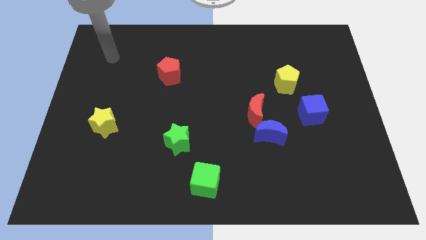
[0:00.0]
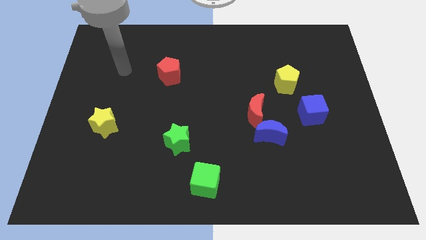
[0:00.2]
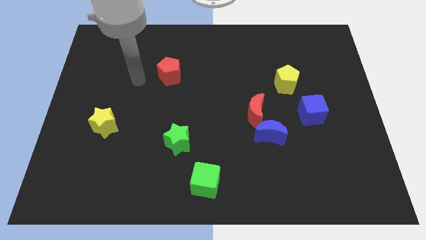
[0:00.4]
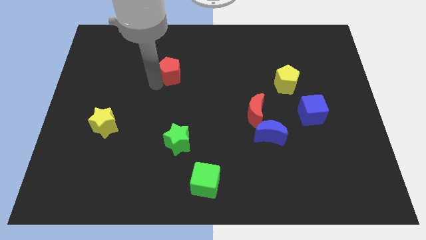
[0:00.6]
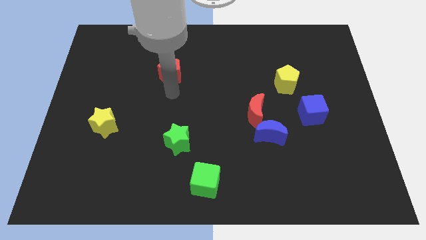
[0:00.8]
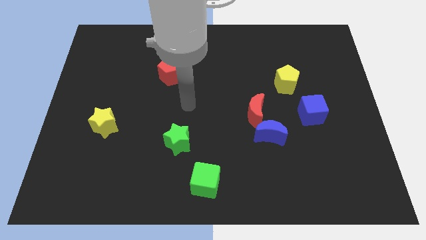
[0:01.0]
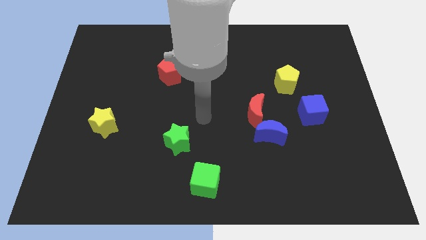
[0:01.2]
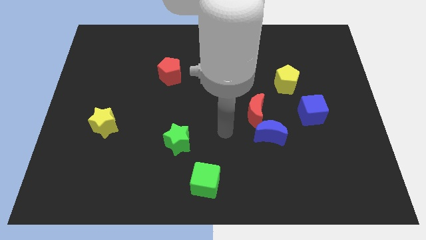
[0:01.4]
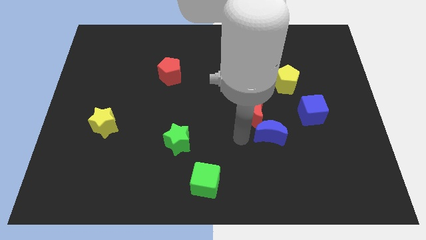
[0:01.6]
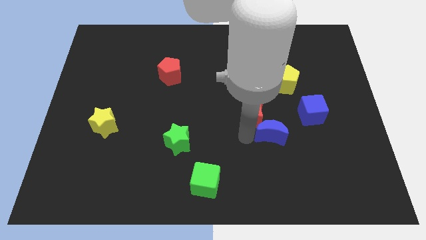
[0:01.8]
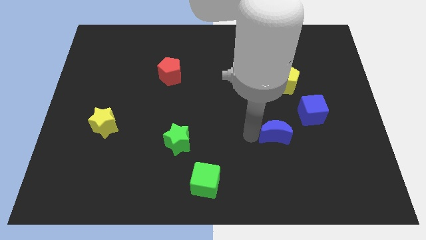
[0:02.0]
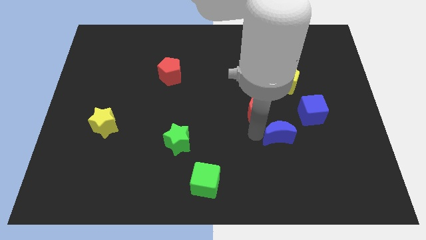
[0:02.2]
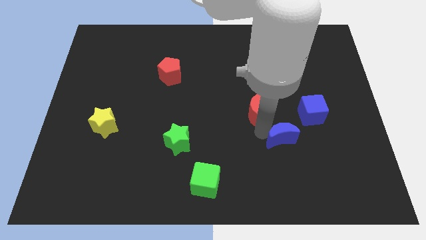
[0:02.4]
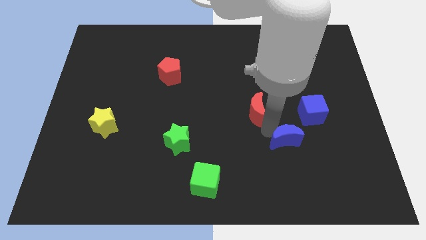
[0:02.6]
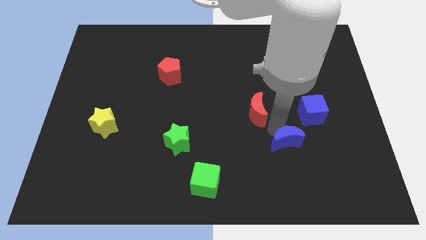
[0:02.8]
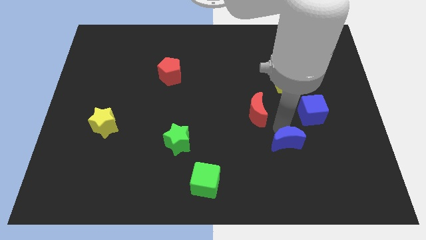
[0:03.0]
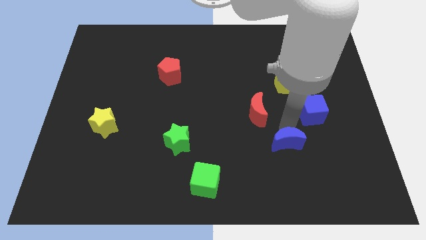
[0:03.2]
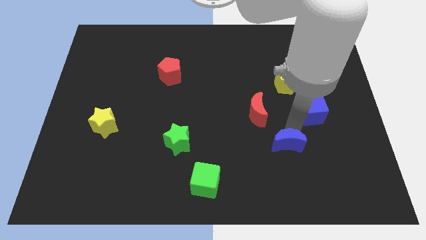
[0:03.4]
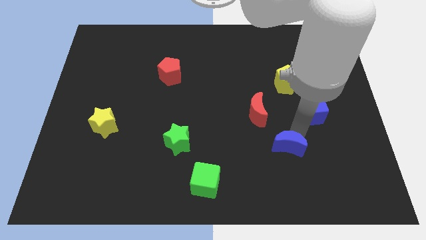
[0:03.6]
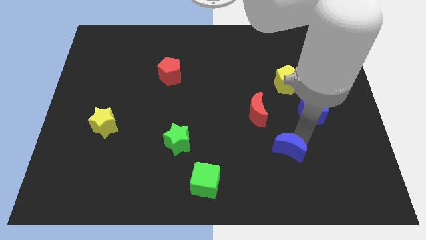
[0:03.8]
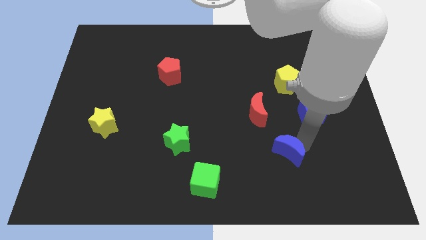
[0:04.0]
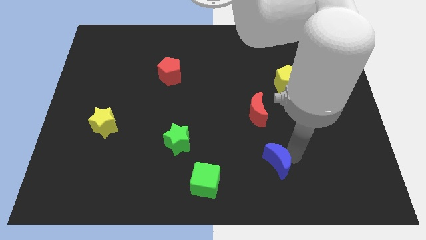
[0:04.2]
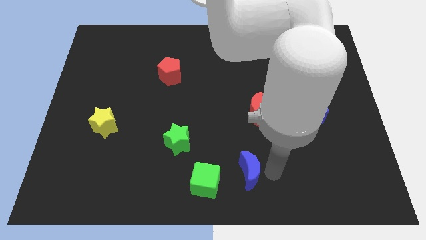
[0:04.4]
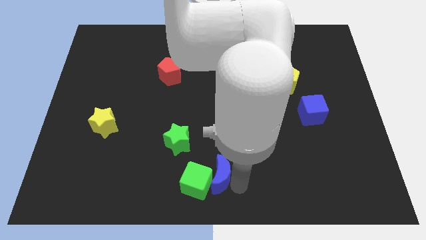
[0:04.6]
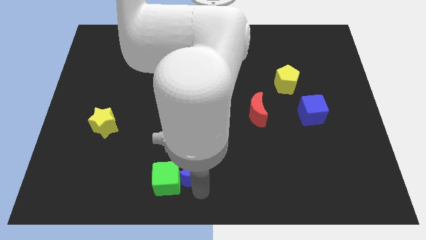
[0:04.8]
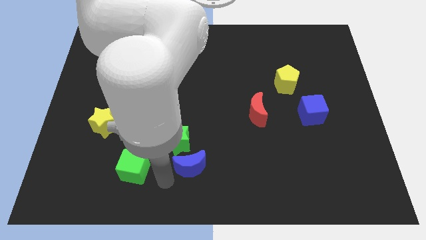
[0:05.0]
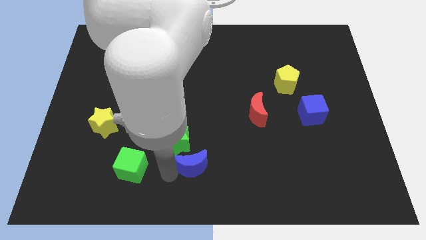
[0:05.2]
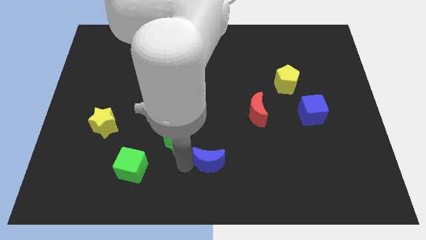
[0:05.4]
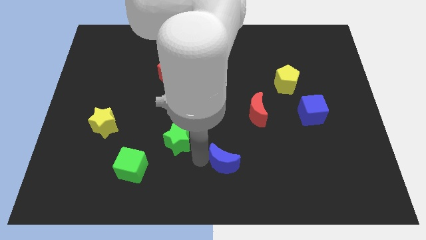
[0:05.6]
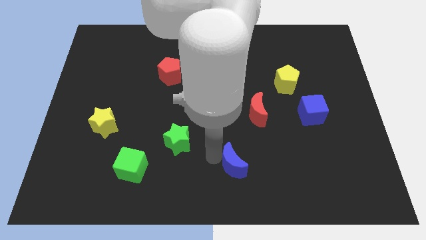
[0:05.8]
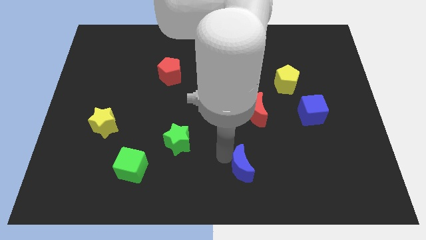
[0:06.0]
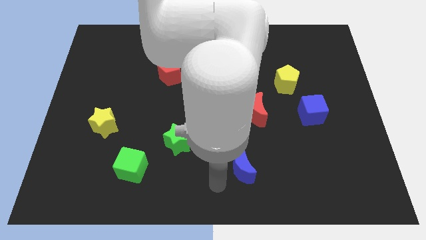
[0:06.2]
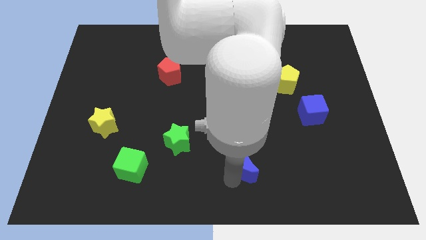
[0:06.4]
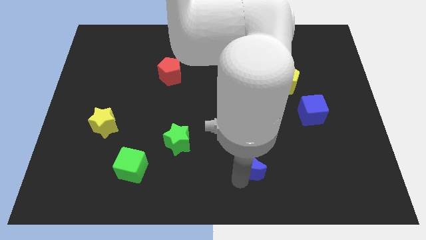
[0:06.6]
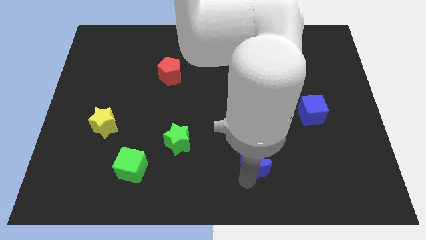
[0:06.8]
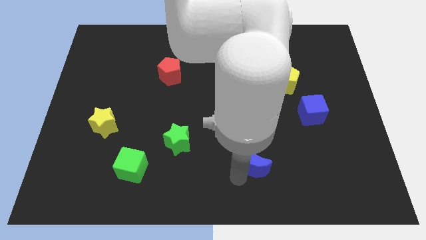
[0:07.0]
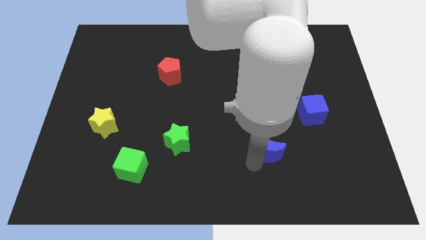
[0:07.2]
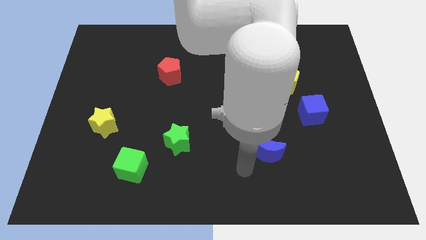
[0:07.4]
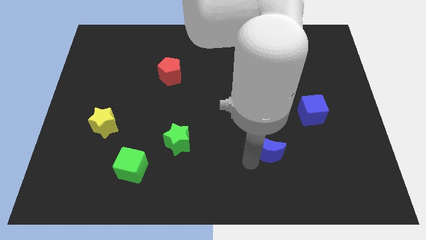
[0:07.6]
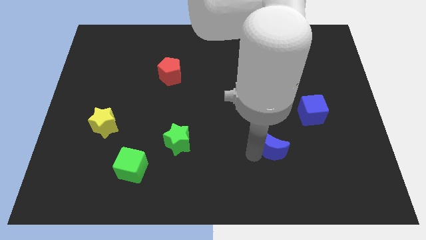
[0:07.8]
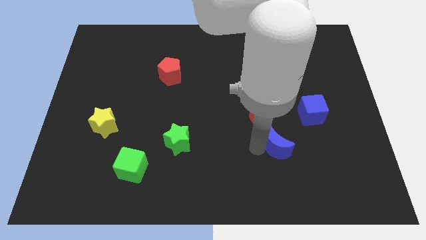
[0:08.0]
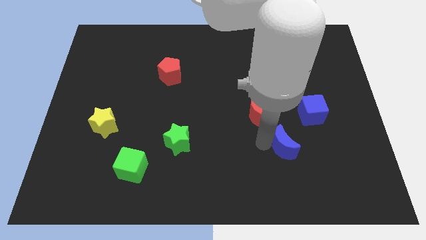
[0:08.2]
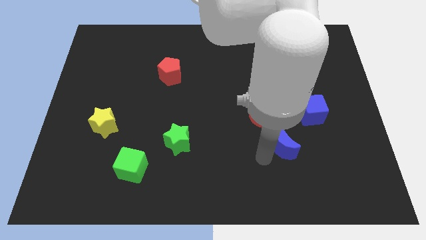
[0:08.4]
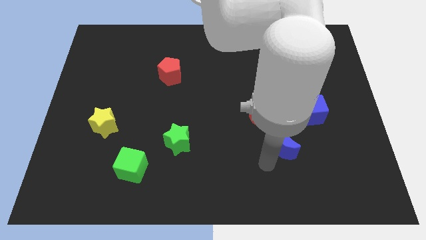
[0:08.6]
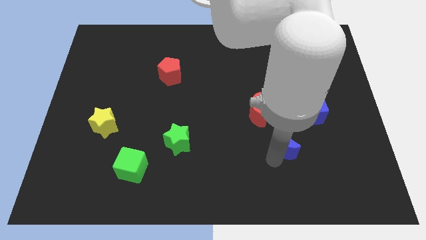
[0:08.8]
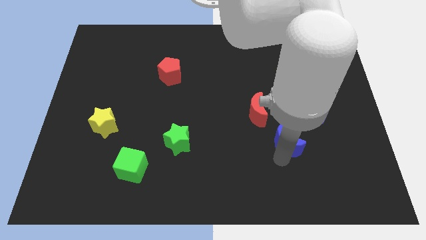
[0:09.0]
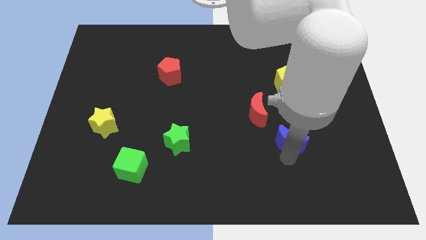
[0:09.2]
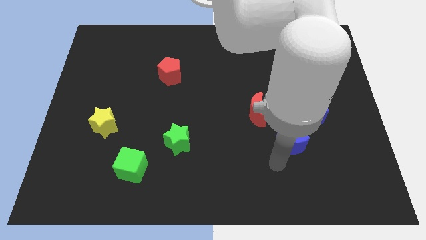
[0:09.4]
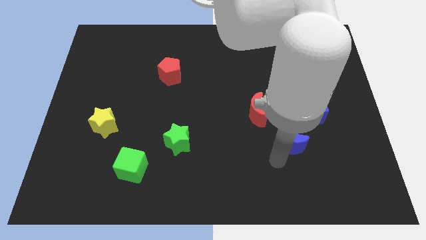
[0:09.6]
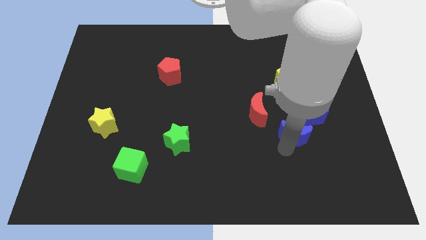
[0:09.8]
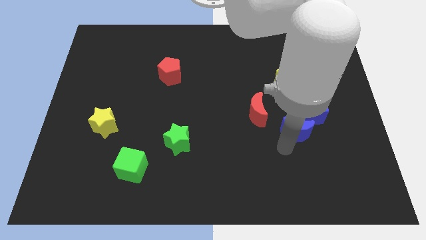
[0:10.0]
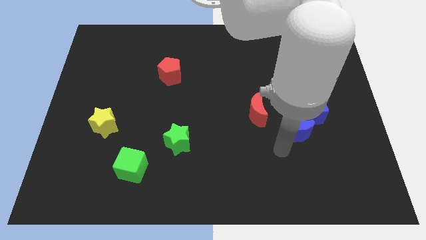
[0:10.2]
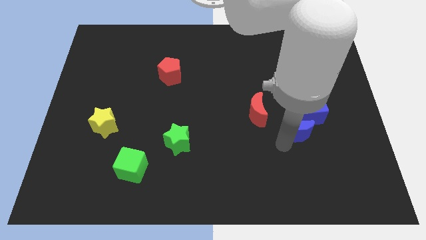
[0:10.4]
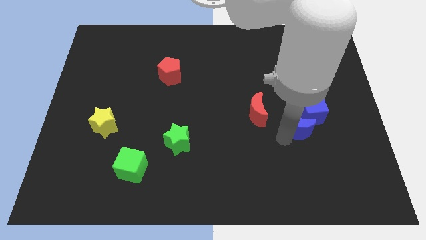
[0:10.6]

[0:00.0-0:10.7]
move the blue moon next to the blue cube

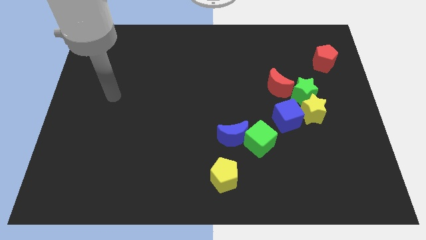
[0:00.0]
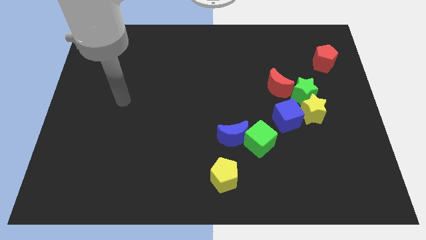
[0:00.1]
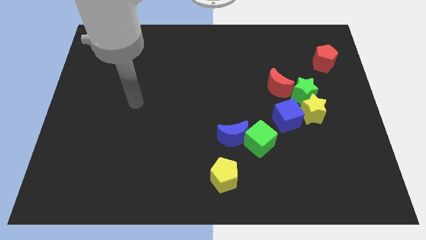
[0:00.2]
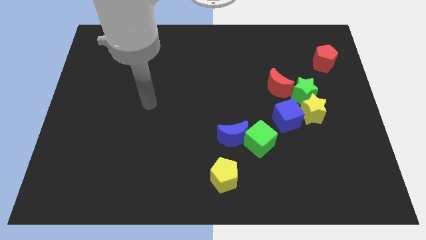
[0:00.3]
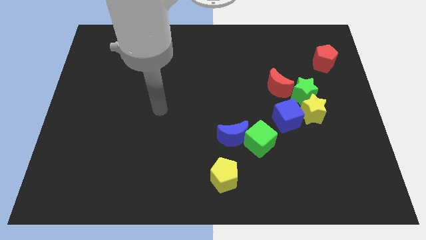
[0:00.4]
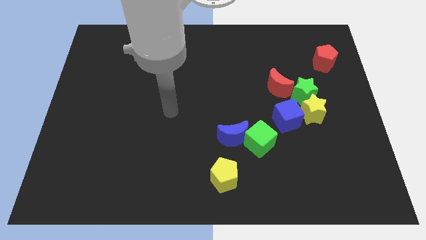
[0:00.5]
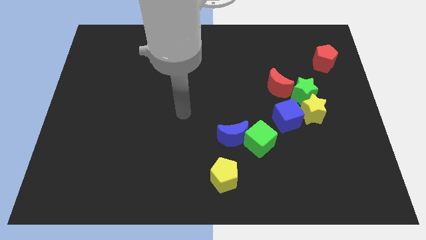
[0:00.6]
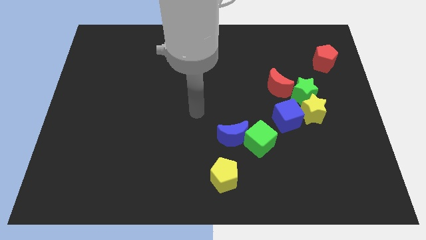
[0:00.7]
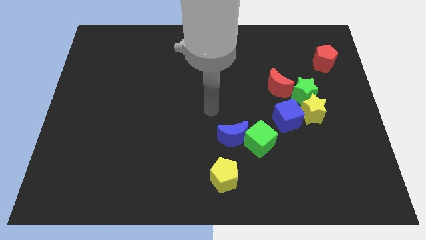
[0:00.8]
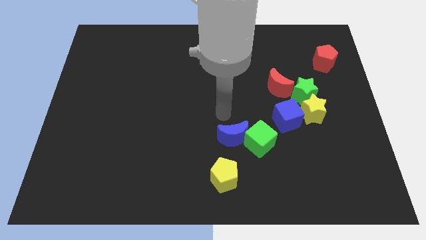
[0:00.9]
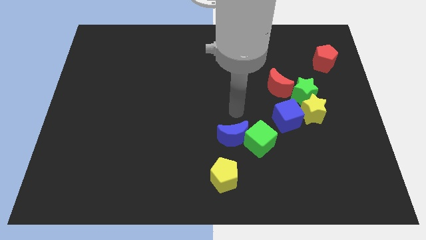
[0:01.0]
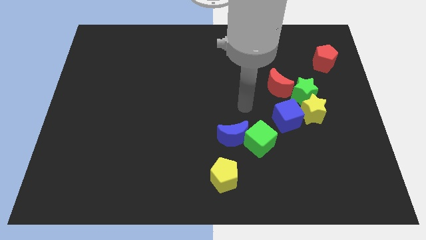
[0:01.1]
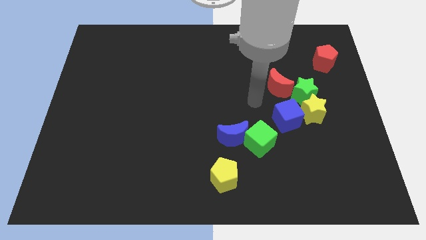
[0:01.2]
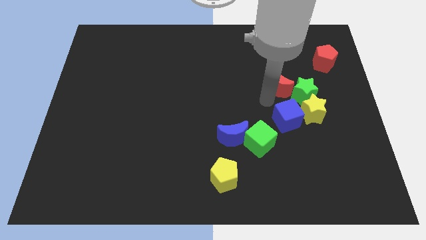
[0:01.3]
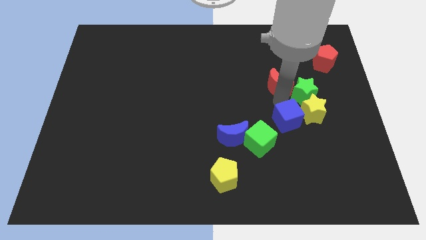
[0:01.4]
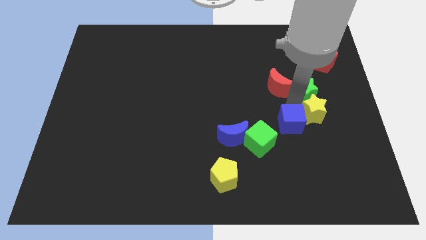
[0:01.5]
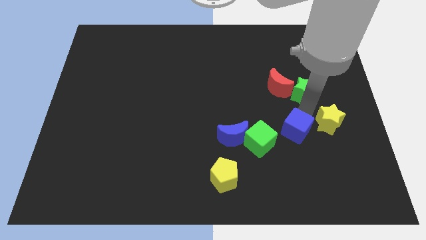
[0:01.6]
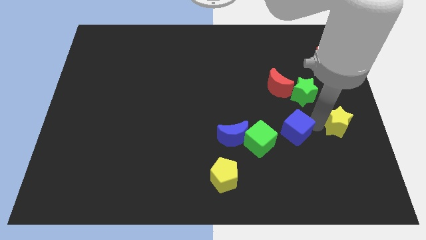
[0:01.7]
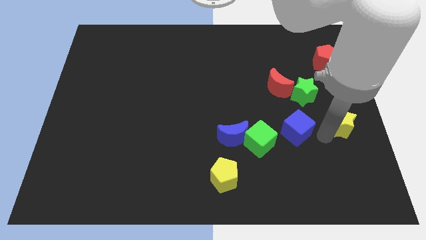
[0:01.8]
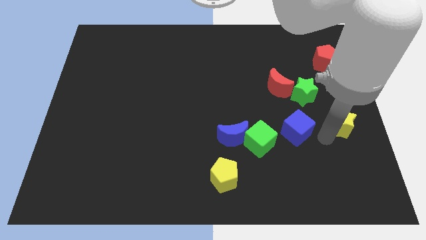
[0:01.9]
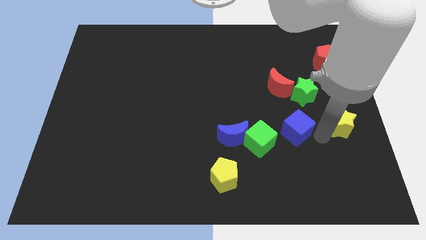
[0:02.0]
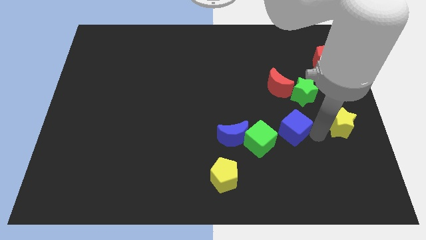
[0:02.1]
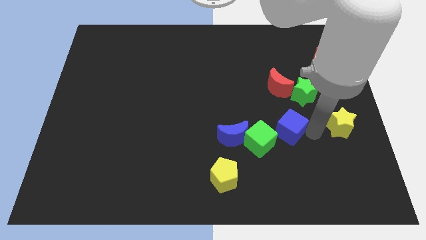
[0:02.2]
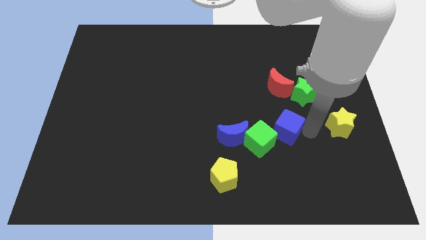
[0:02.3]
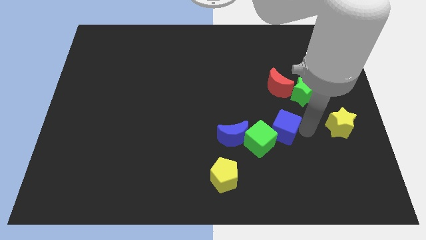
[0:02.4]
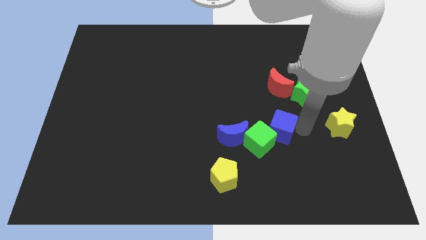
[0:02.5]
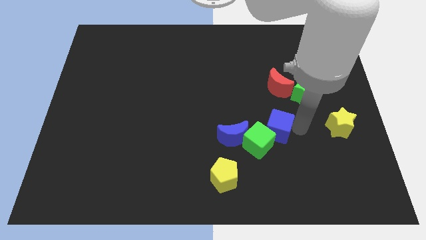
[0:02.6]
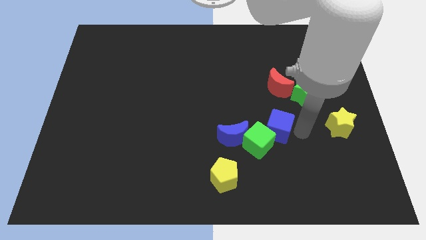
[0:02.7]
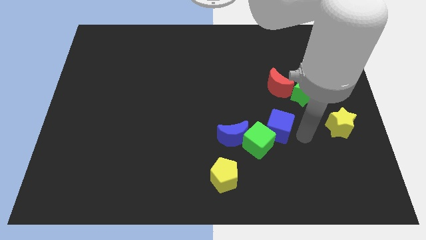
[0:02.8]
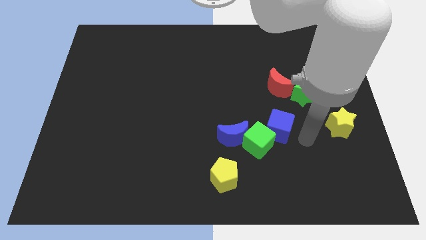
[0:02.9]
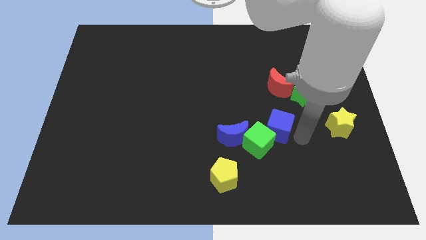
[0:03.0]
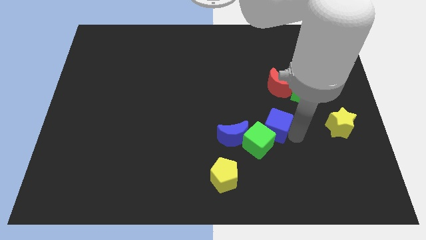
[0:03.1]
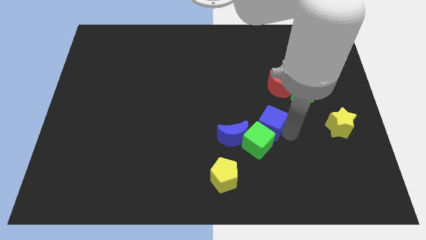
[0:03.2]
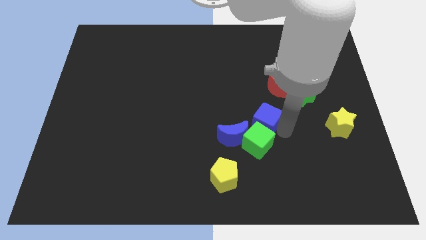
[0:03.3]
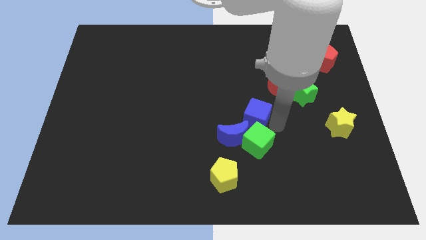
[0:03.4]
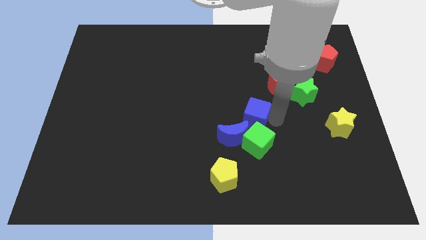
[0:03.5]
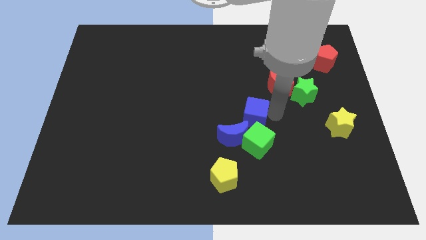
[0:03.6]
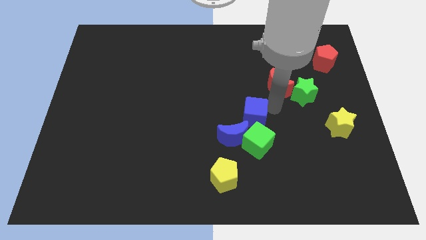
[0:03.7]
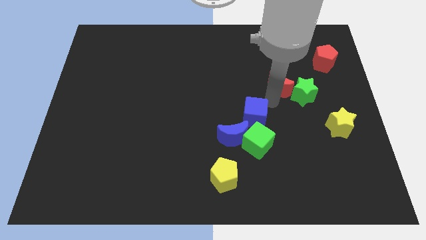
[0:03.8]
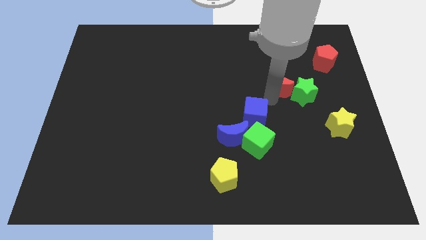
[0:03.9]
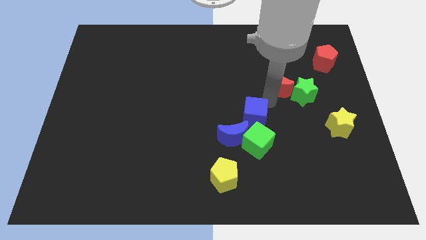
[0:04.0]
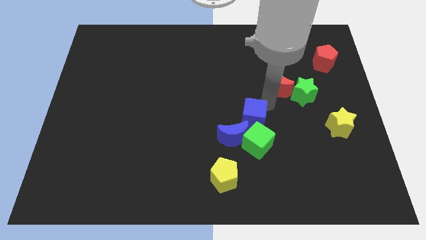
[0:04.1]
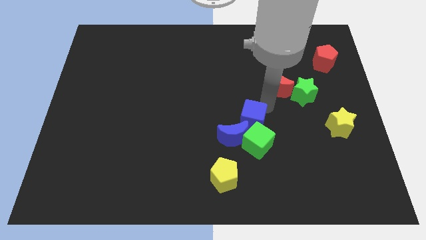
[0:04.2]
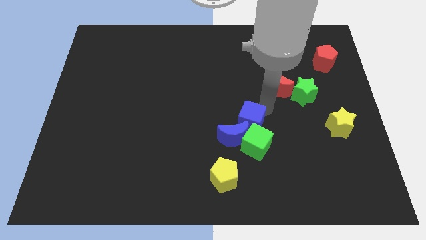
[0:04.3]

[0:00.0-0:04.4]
slide the blue cube towards the blue moon
